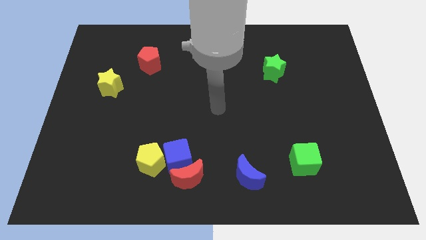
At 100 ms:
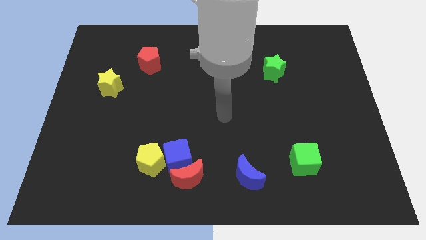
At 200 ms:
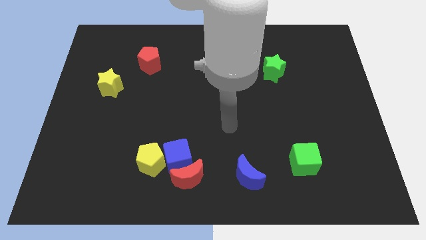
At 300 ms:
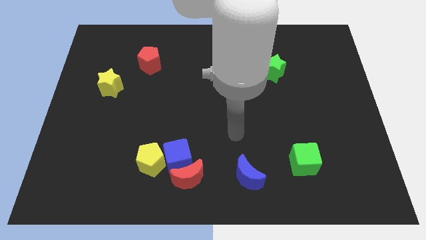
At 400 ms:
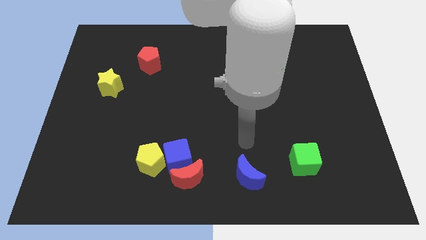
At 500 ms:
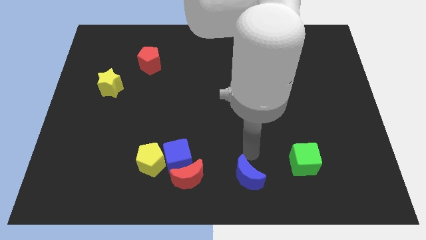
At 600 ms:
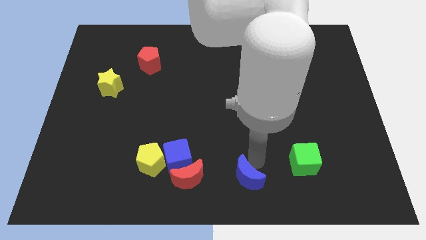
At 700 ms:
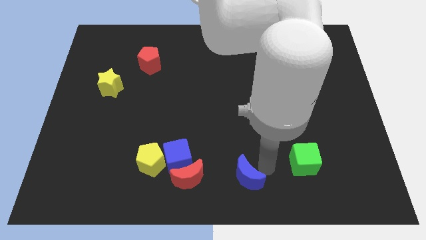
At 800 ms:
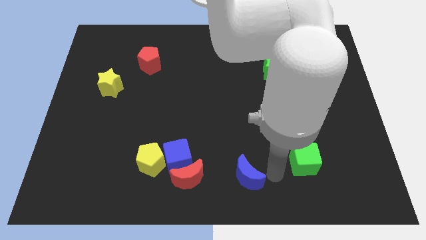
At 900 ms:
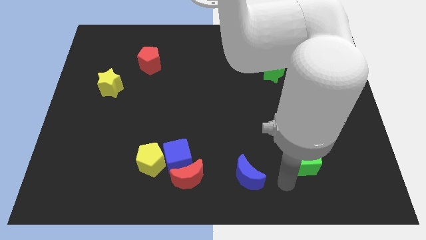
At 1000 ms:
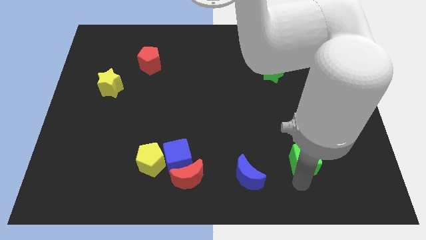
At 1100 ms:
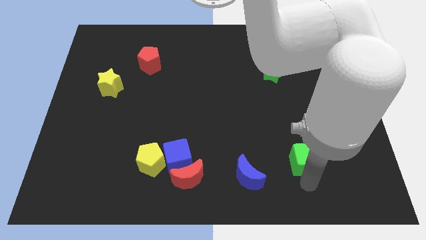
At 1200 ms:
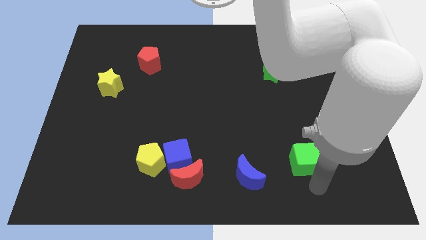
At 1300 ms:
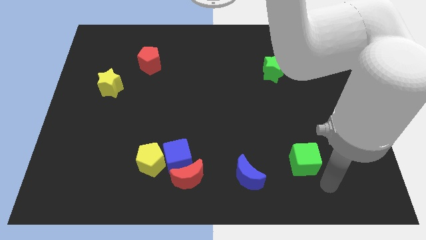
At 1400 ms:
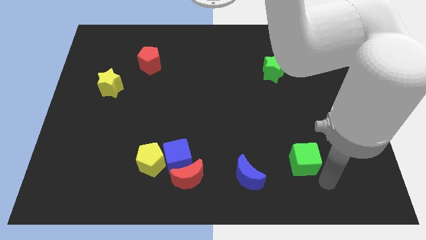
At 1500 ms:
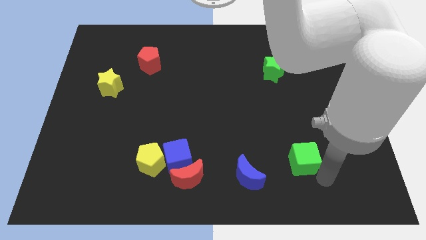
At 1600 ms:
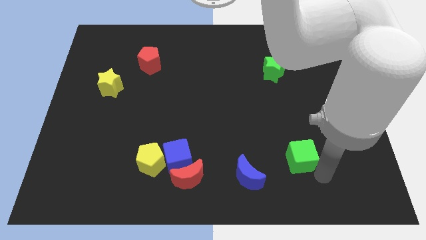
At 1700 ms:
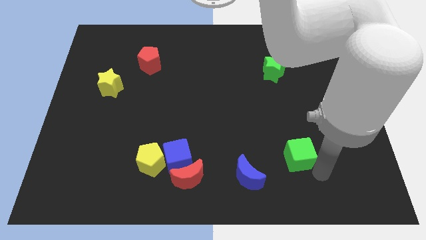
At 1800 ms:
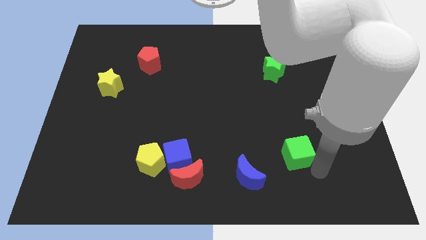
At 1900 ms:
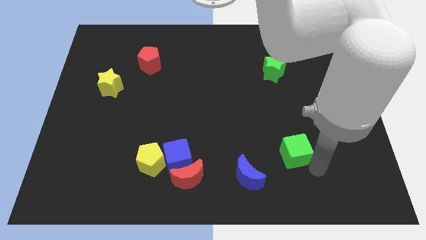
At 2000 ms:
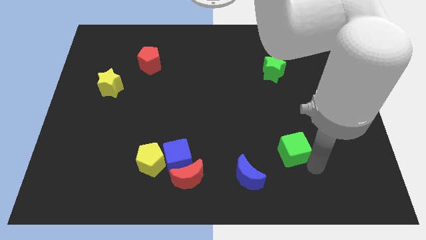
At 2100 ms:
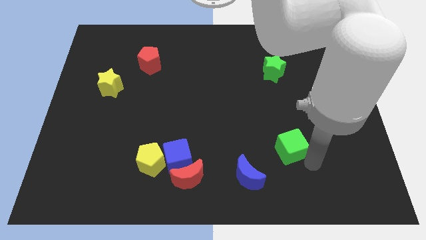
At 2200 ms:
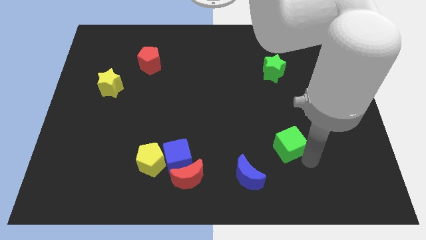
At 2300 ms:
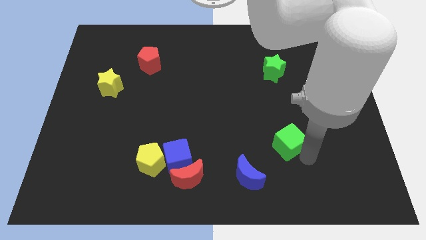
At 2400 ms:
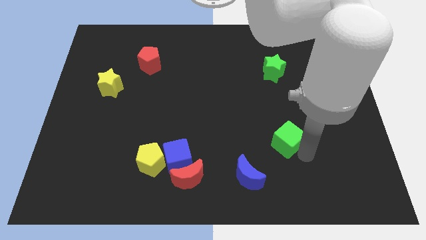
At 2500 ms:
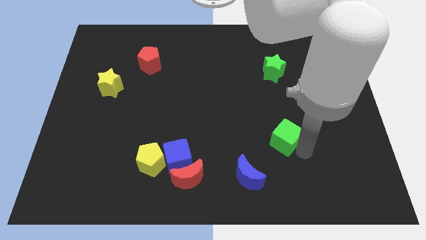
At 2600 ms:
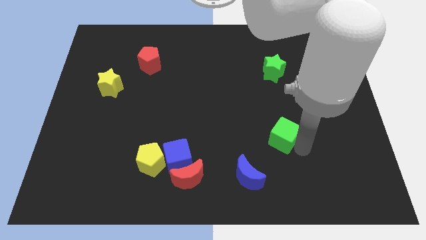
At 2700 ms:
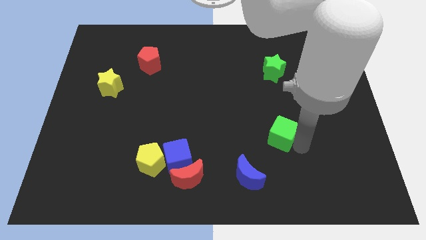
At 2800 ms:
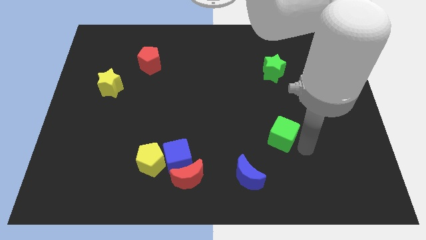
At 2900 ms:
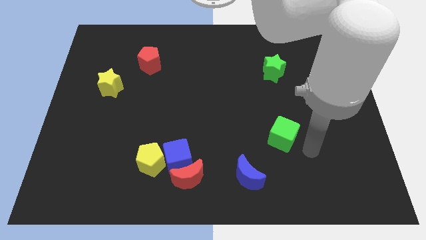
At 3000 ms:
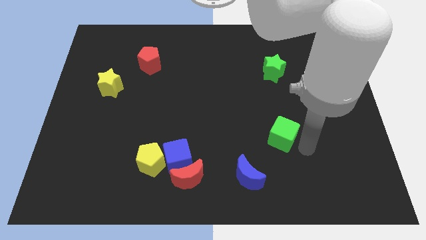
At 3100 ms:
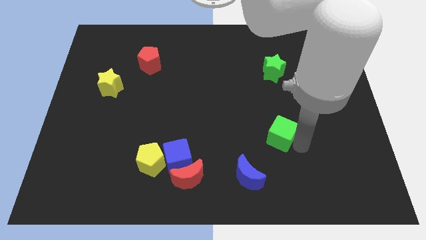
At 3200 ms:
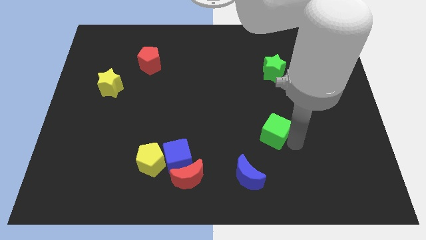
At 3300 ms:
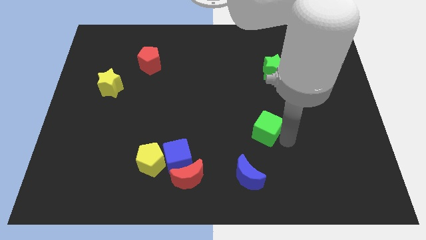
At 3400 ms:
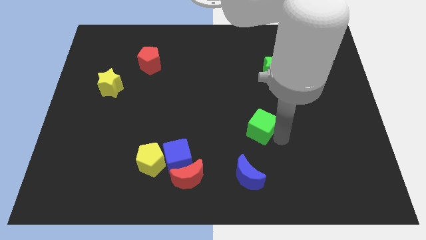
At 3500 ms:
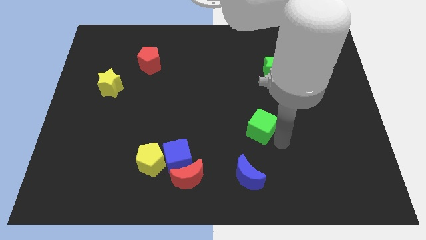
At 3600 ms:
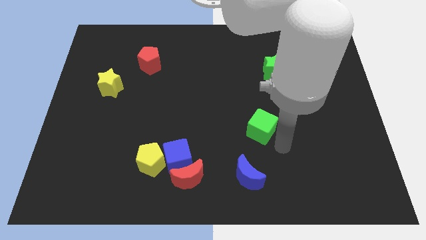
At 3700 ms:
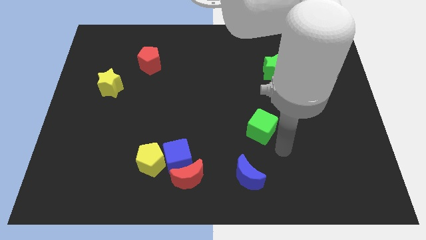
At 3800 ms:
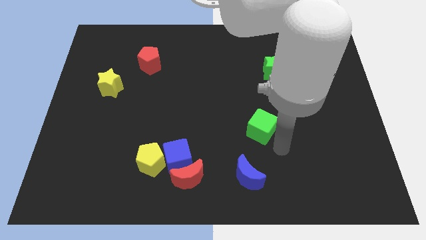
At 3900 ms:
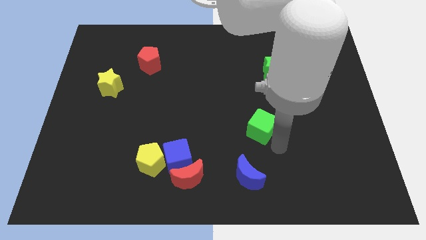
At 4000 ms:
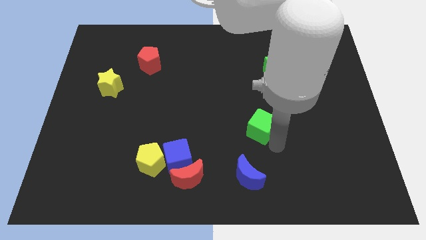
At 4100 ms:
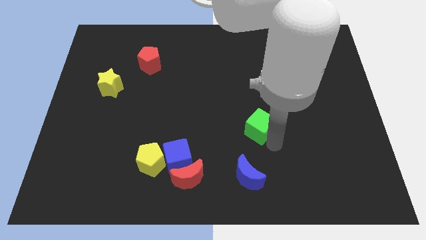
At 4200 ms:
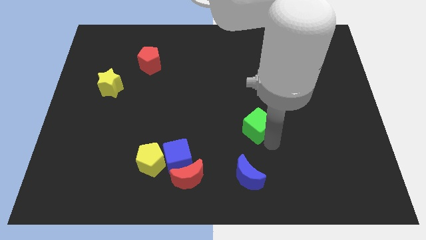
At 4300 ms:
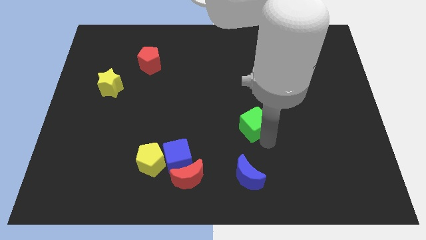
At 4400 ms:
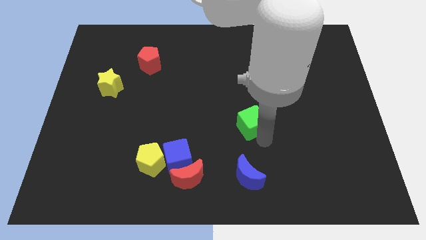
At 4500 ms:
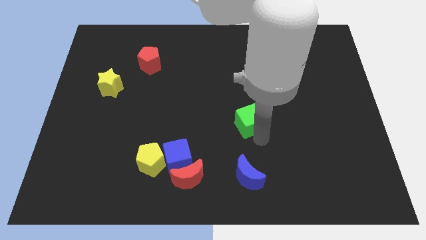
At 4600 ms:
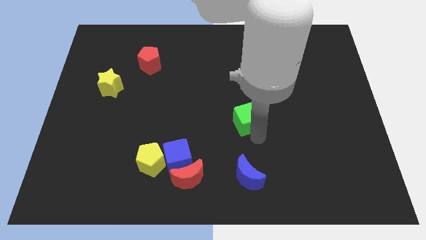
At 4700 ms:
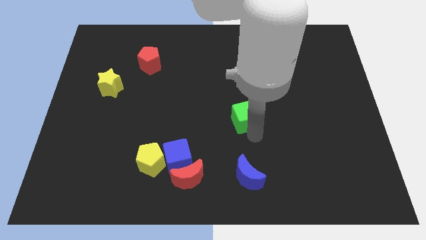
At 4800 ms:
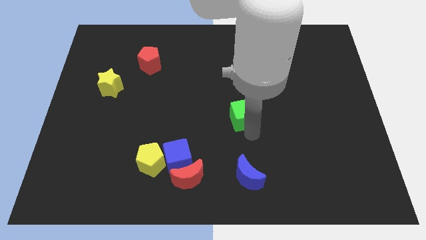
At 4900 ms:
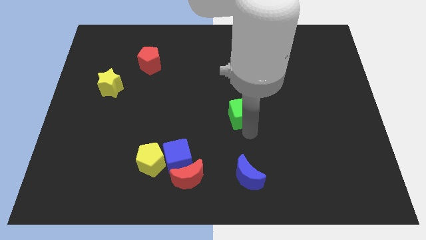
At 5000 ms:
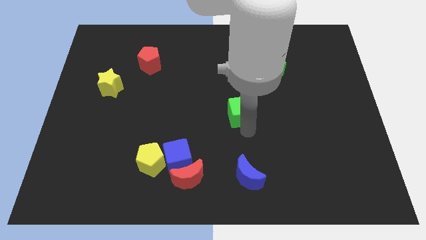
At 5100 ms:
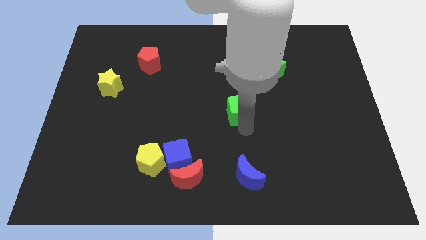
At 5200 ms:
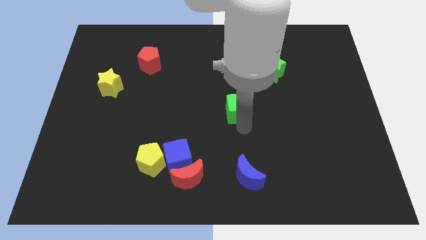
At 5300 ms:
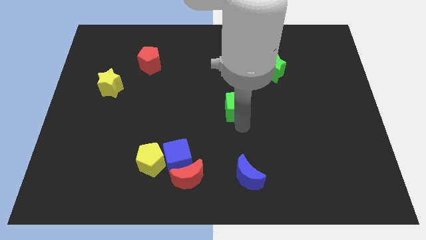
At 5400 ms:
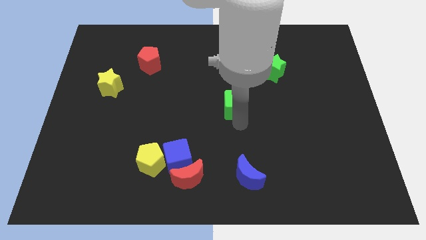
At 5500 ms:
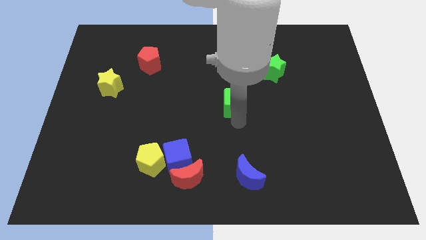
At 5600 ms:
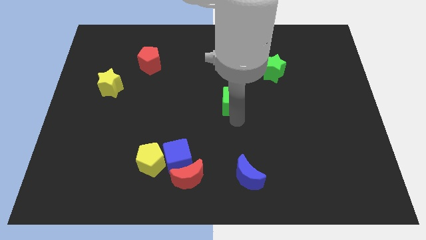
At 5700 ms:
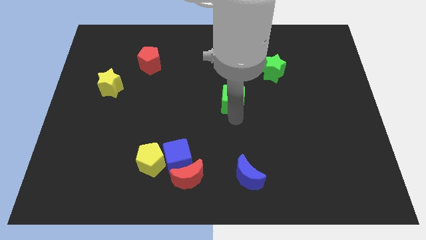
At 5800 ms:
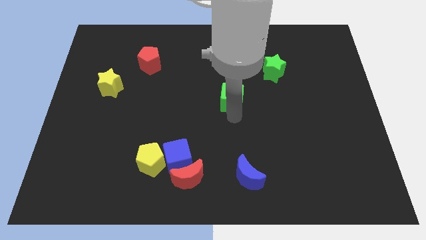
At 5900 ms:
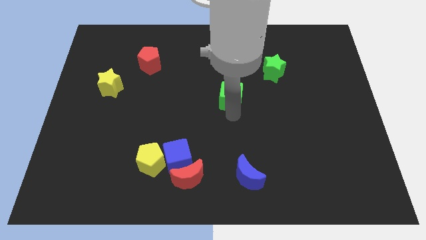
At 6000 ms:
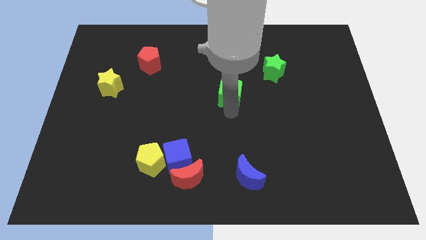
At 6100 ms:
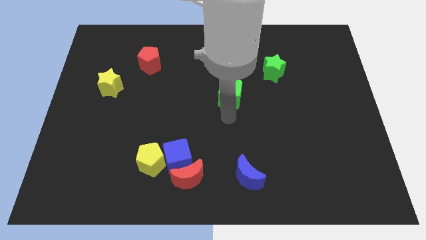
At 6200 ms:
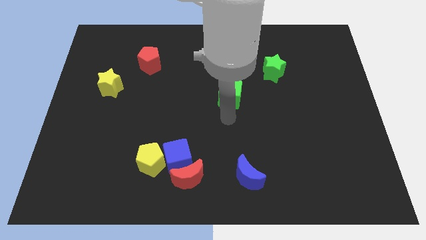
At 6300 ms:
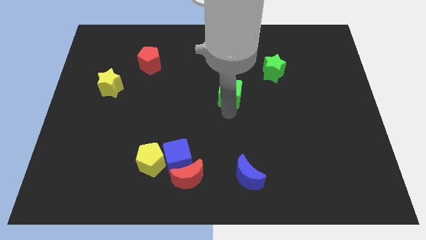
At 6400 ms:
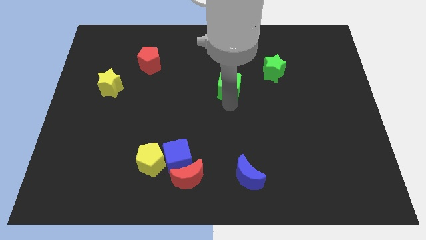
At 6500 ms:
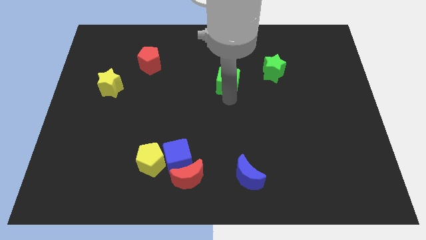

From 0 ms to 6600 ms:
put the green cube just left of the green star
